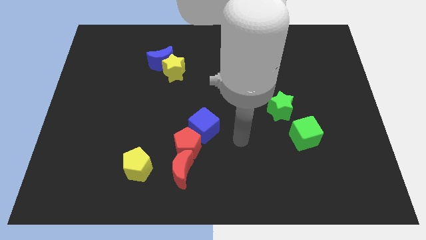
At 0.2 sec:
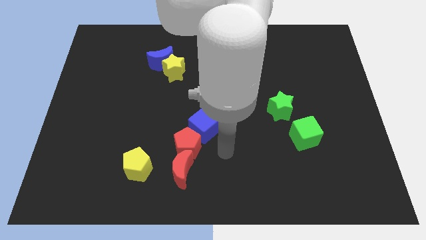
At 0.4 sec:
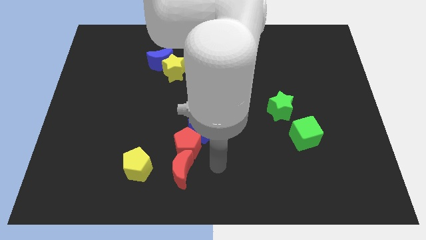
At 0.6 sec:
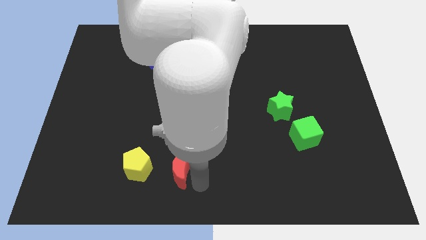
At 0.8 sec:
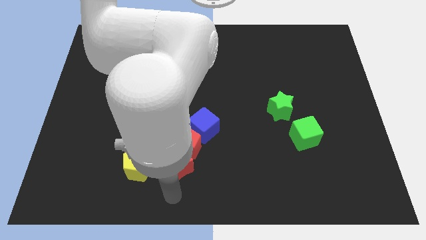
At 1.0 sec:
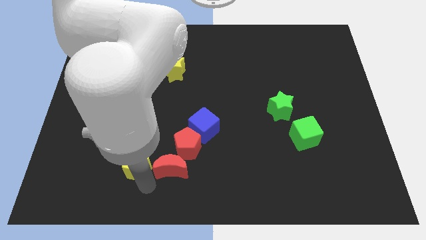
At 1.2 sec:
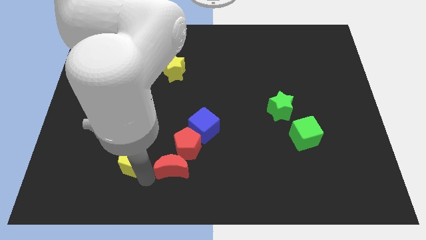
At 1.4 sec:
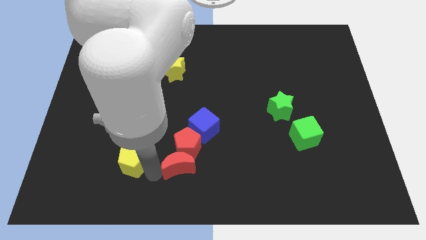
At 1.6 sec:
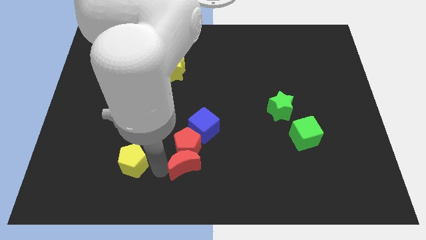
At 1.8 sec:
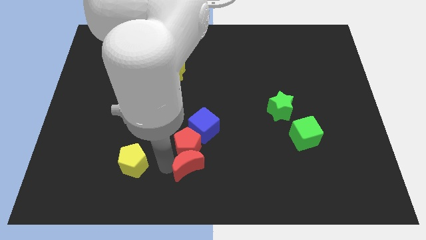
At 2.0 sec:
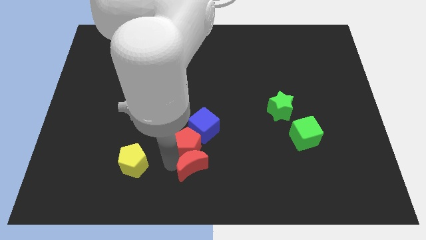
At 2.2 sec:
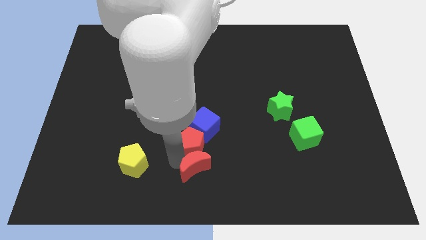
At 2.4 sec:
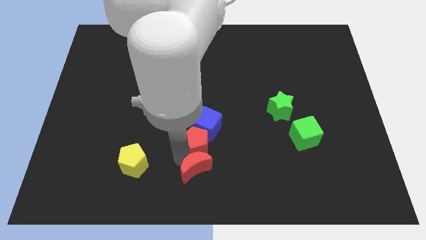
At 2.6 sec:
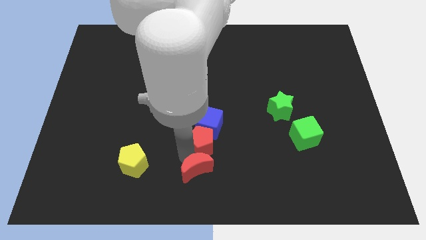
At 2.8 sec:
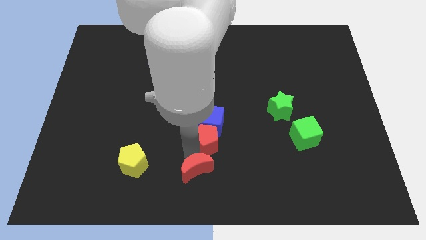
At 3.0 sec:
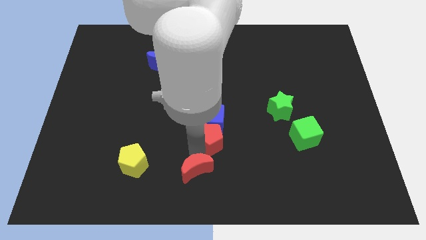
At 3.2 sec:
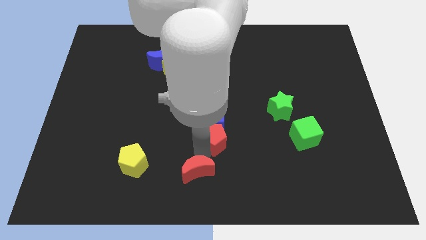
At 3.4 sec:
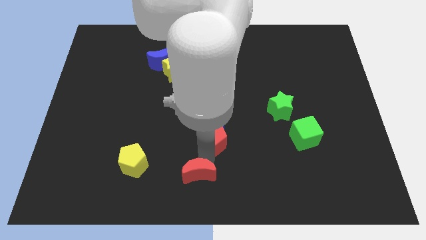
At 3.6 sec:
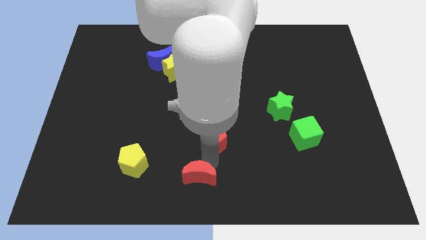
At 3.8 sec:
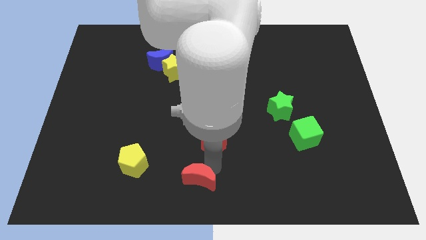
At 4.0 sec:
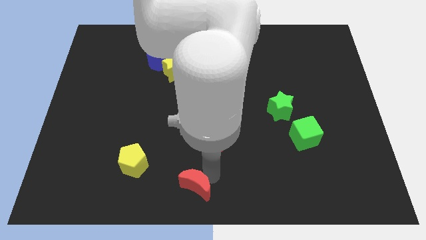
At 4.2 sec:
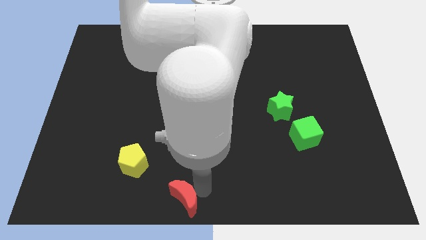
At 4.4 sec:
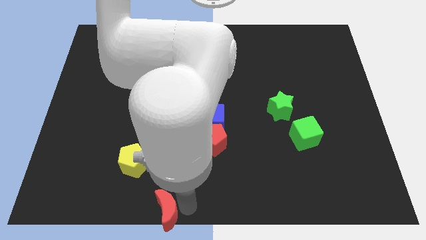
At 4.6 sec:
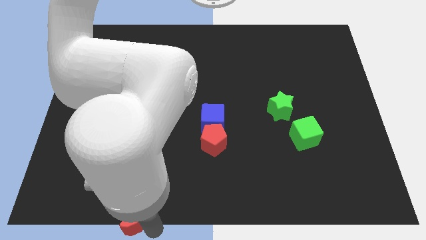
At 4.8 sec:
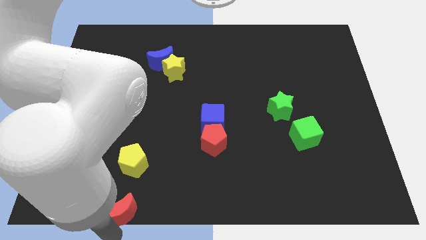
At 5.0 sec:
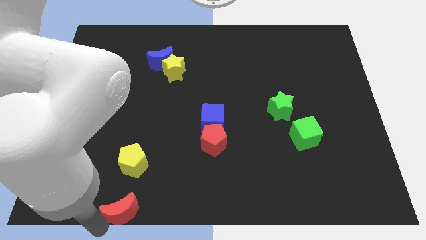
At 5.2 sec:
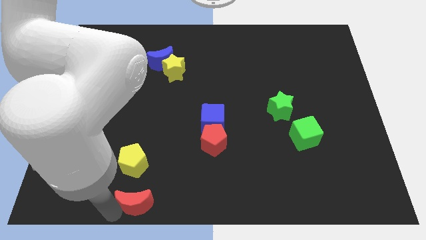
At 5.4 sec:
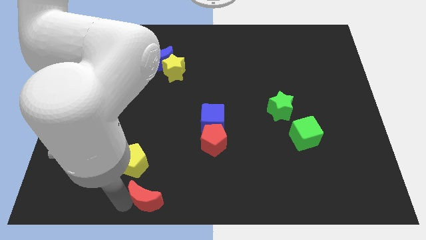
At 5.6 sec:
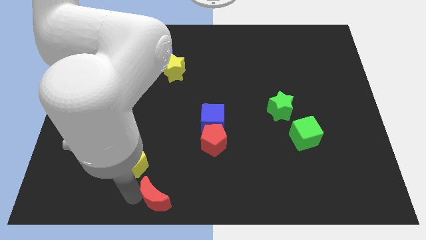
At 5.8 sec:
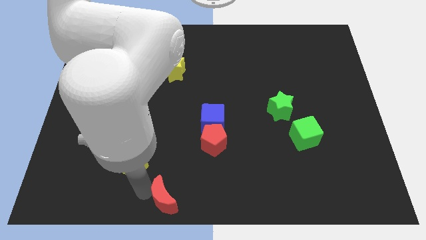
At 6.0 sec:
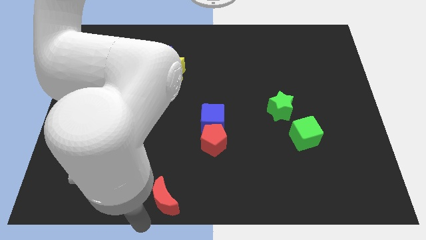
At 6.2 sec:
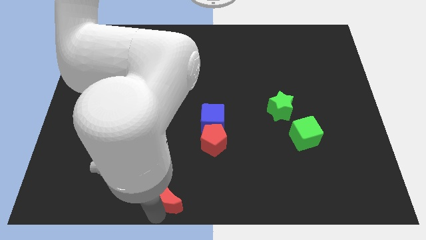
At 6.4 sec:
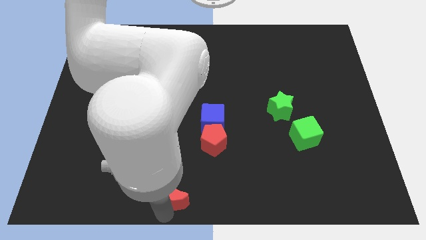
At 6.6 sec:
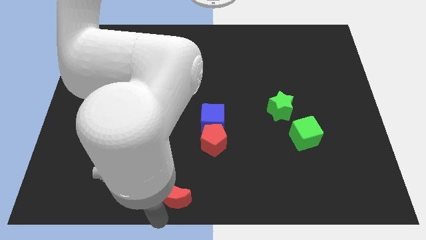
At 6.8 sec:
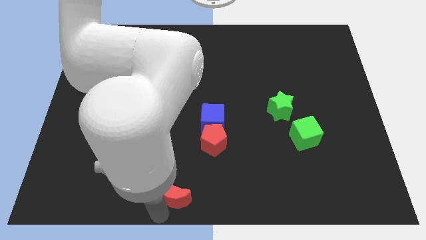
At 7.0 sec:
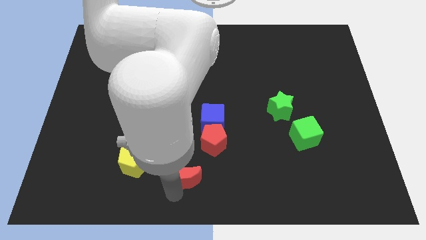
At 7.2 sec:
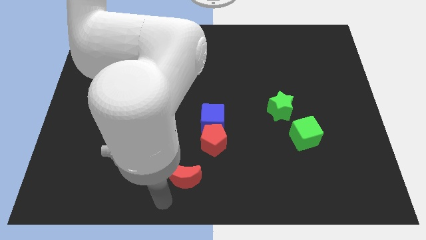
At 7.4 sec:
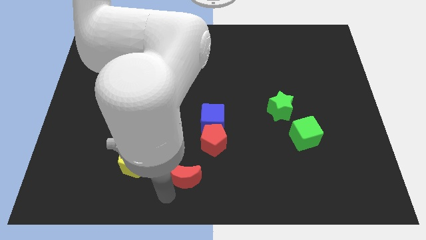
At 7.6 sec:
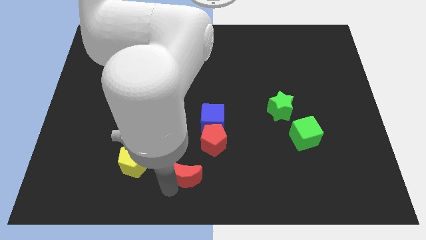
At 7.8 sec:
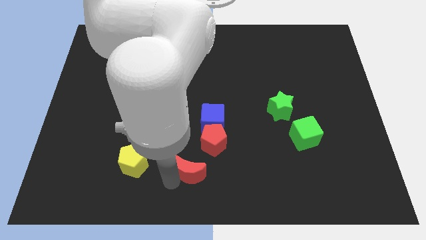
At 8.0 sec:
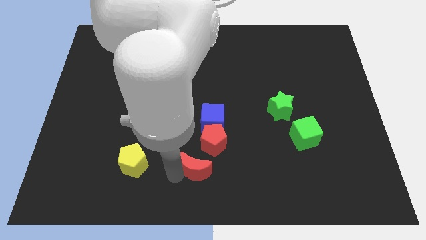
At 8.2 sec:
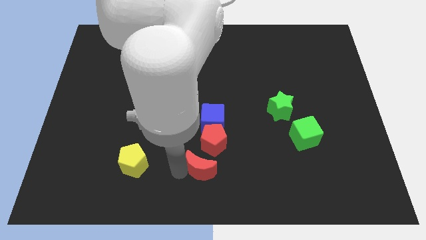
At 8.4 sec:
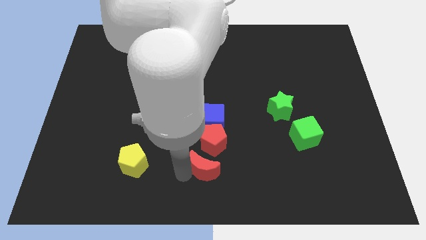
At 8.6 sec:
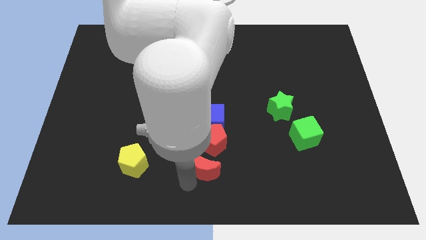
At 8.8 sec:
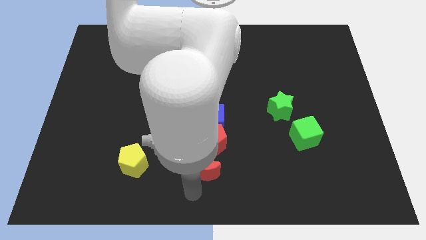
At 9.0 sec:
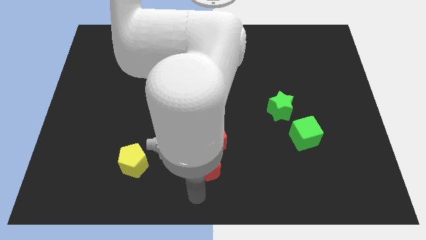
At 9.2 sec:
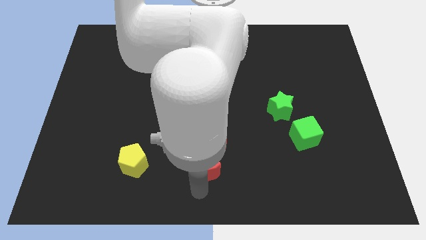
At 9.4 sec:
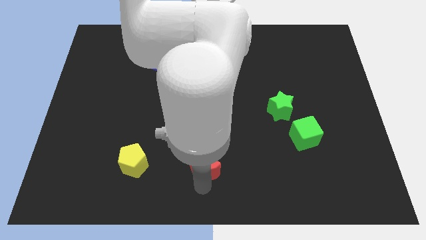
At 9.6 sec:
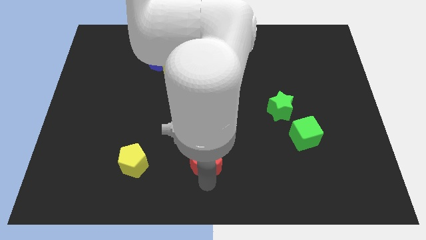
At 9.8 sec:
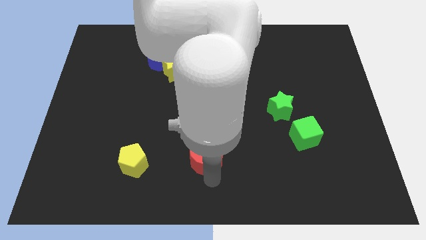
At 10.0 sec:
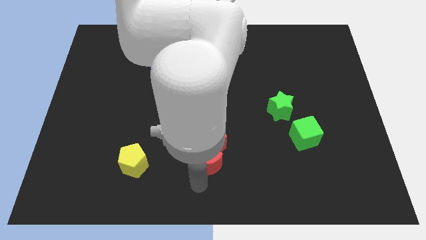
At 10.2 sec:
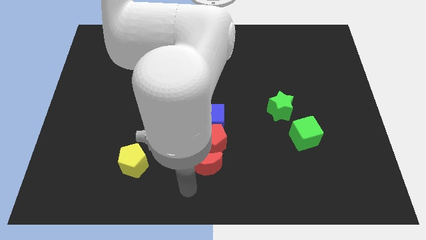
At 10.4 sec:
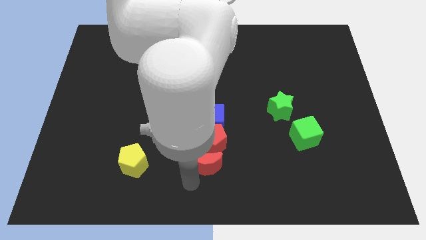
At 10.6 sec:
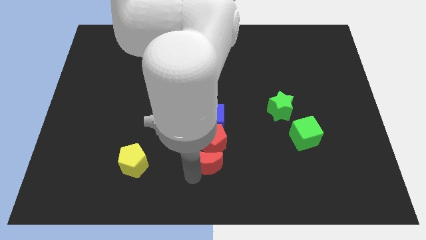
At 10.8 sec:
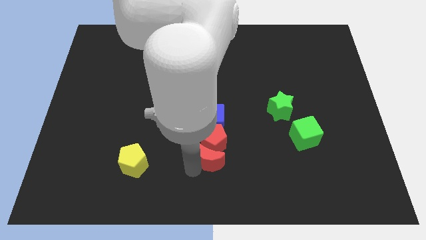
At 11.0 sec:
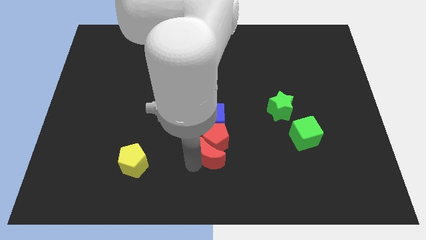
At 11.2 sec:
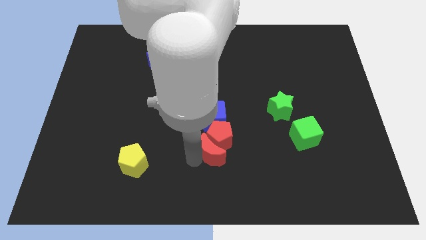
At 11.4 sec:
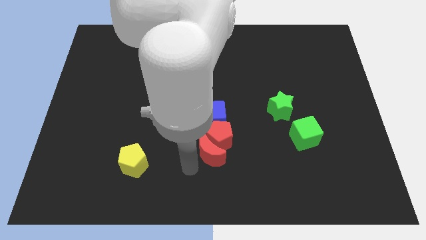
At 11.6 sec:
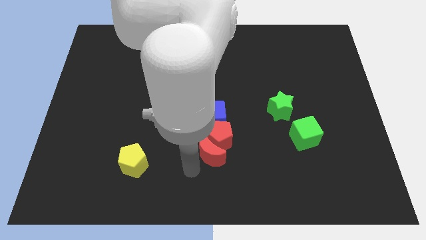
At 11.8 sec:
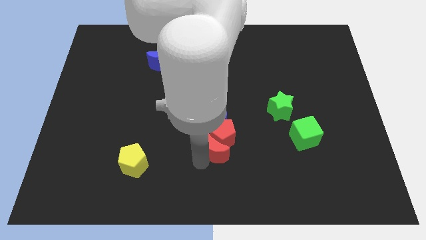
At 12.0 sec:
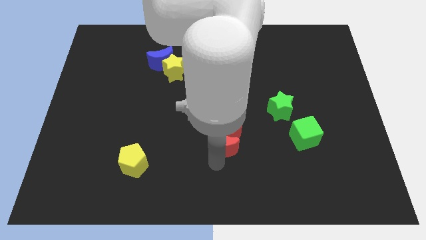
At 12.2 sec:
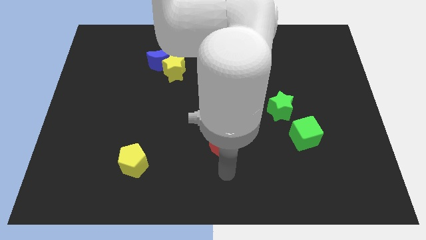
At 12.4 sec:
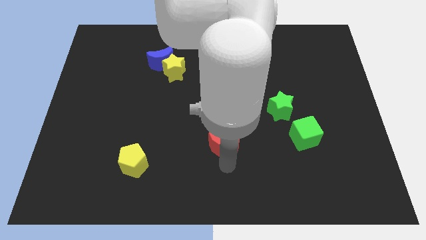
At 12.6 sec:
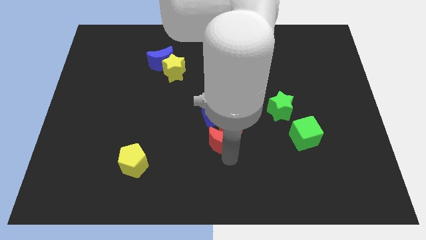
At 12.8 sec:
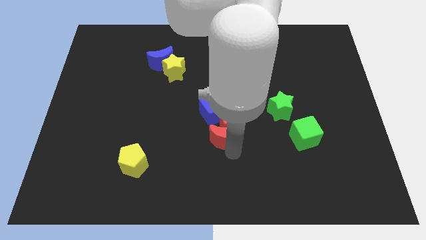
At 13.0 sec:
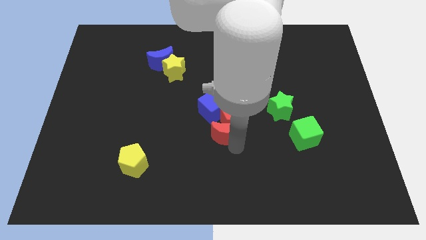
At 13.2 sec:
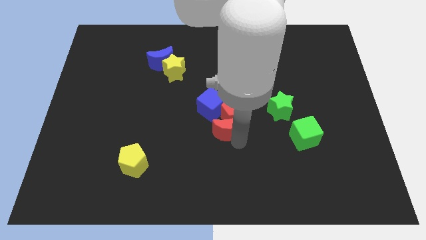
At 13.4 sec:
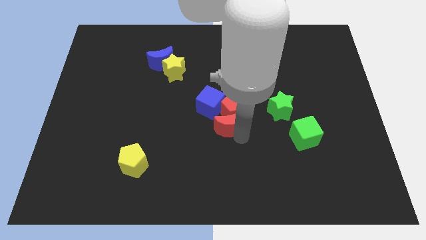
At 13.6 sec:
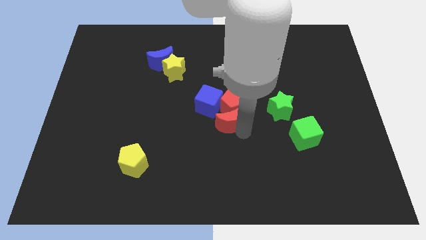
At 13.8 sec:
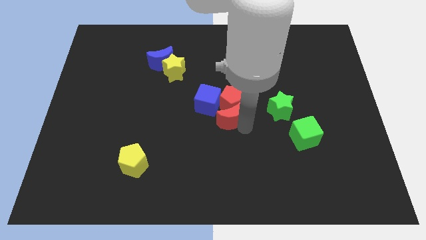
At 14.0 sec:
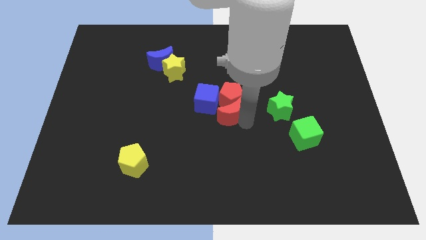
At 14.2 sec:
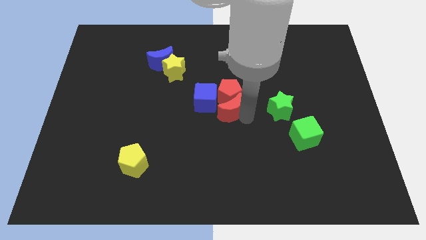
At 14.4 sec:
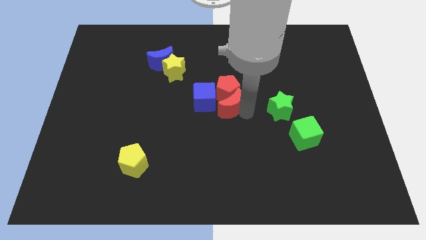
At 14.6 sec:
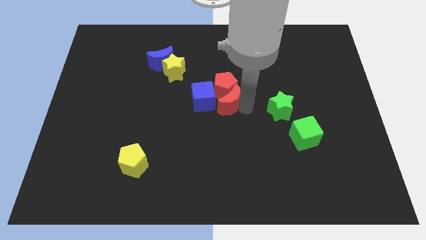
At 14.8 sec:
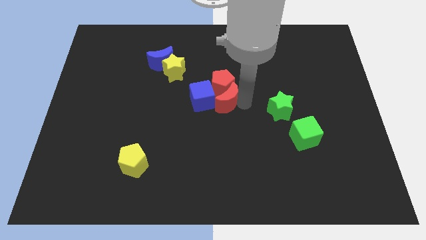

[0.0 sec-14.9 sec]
move the red moon to the blue cube
